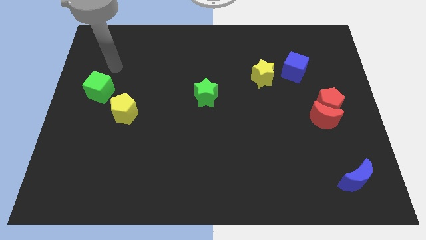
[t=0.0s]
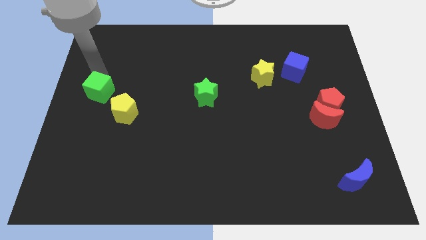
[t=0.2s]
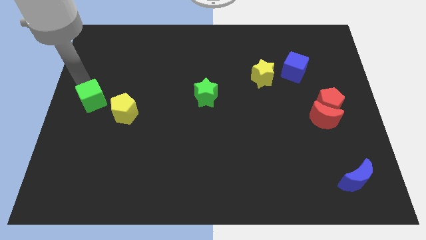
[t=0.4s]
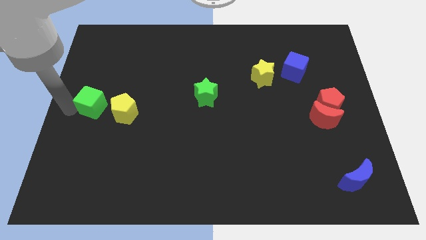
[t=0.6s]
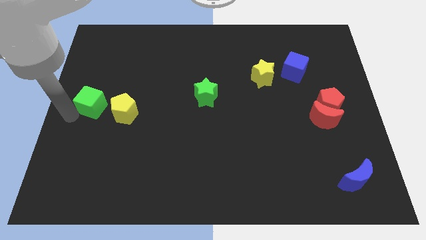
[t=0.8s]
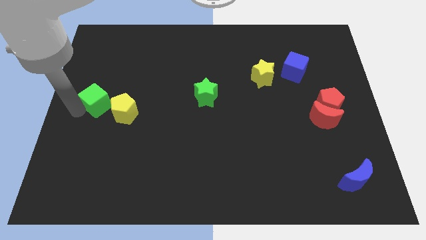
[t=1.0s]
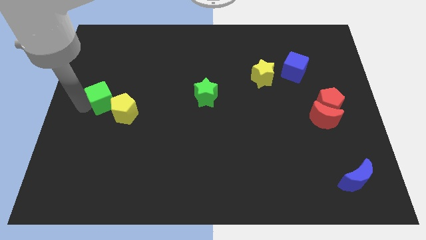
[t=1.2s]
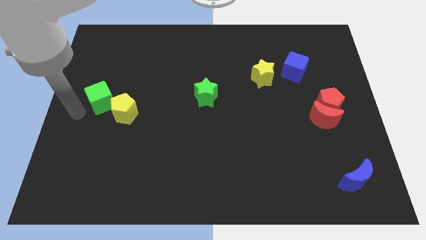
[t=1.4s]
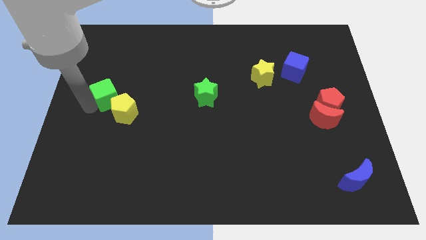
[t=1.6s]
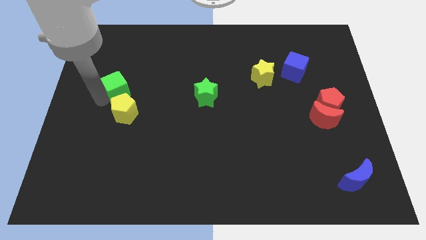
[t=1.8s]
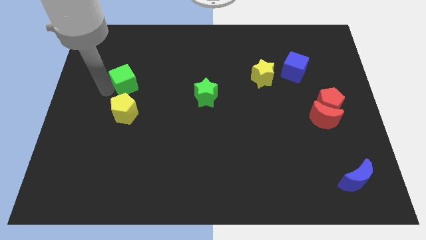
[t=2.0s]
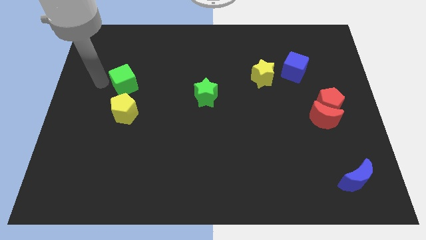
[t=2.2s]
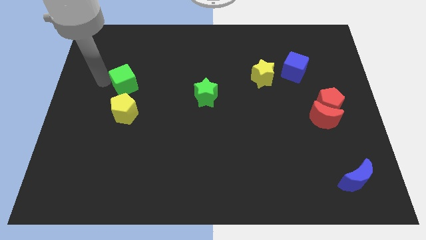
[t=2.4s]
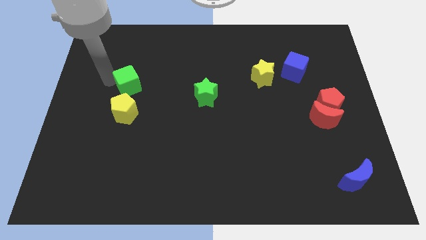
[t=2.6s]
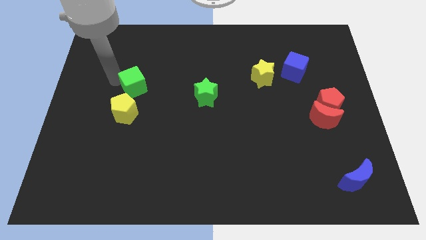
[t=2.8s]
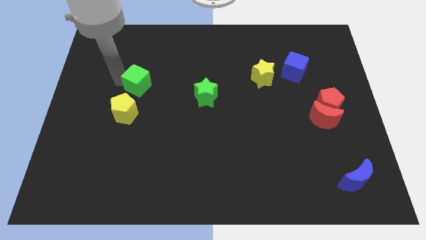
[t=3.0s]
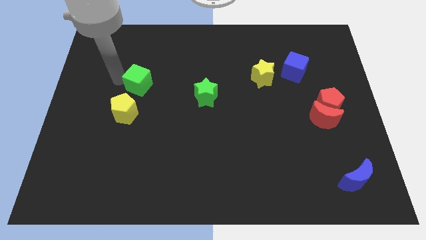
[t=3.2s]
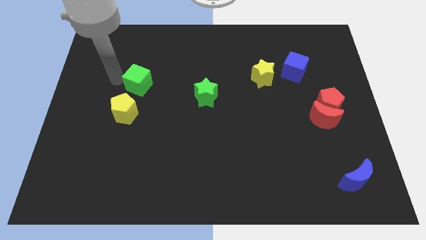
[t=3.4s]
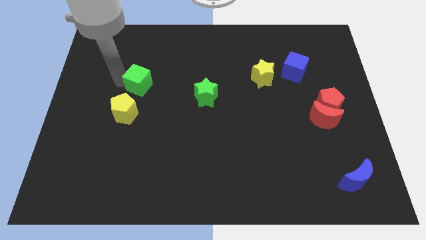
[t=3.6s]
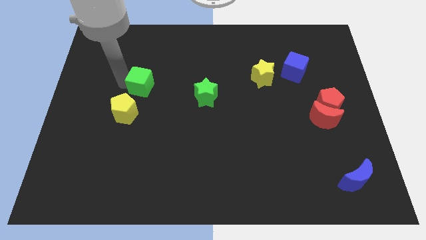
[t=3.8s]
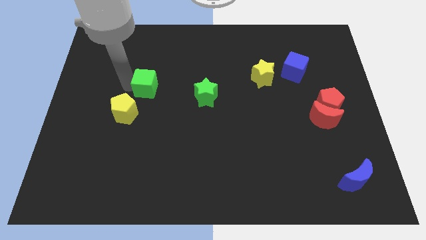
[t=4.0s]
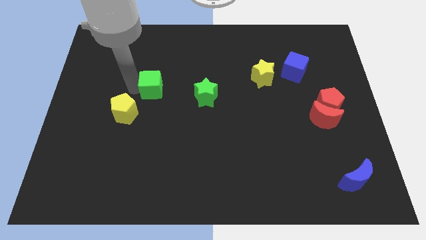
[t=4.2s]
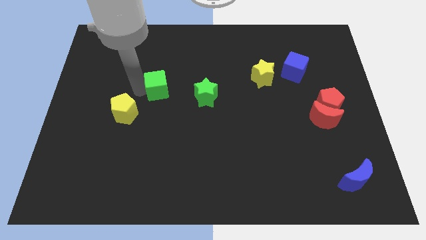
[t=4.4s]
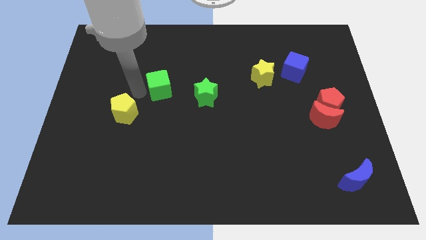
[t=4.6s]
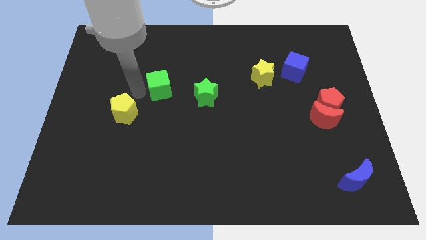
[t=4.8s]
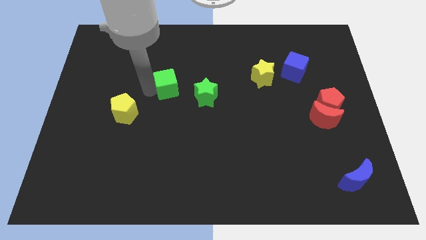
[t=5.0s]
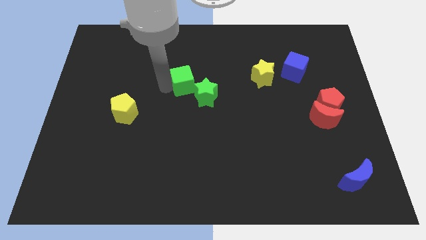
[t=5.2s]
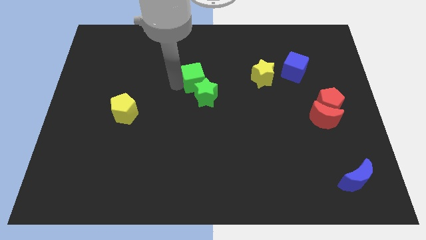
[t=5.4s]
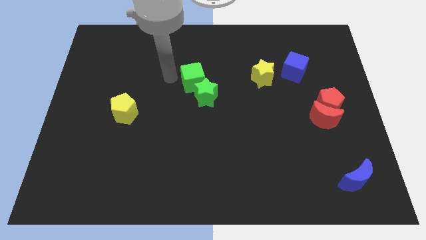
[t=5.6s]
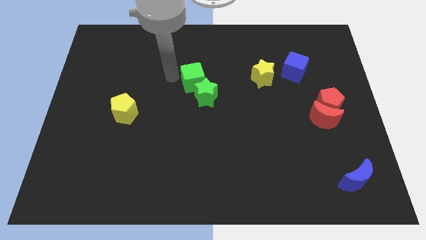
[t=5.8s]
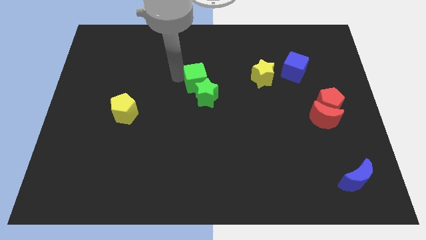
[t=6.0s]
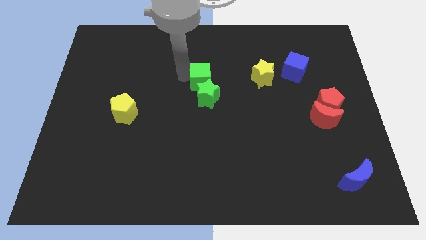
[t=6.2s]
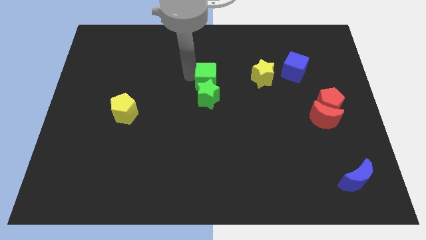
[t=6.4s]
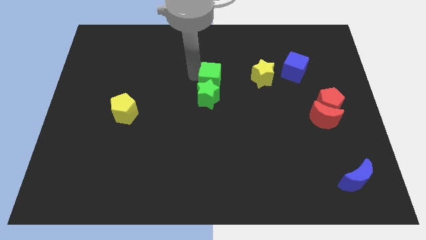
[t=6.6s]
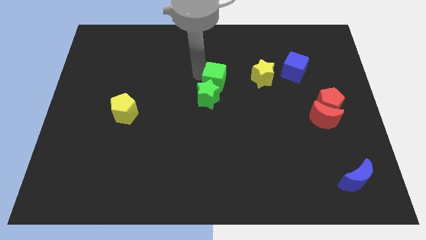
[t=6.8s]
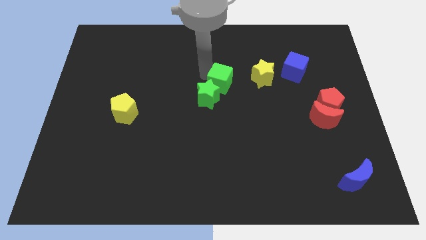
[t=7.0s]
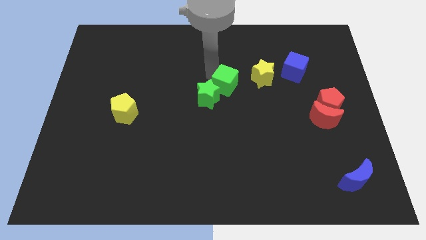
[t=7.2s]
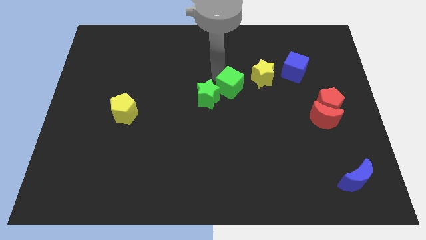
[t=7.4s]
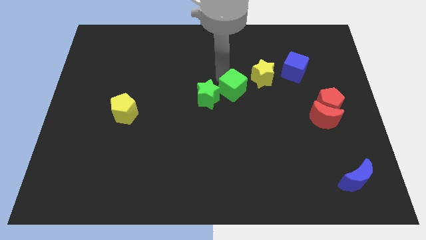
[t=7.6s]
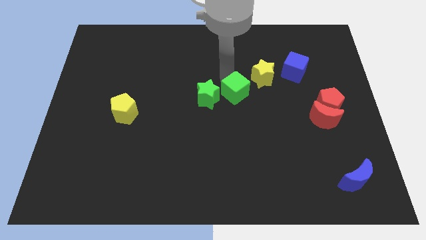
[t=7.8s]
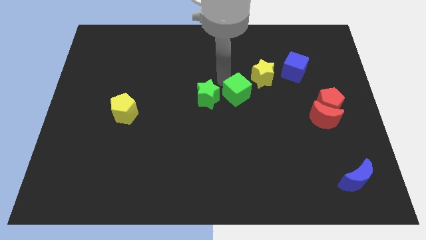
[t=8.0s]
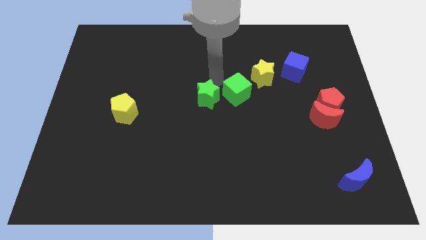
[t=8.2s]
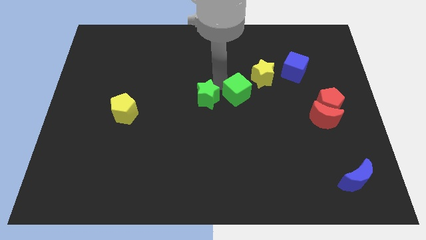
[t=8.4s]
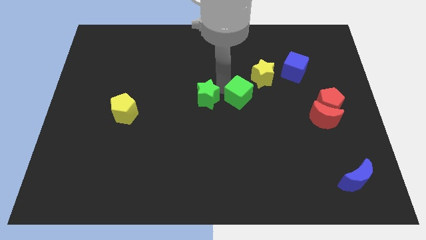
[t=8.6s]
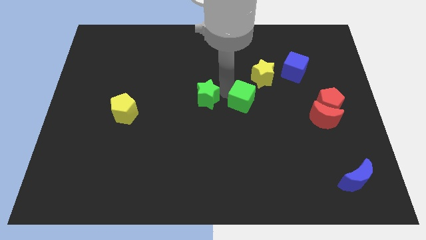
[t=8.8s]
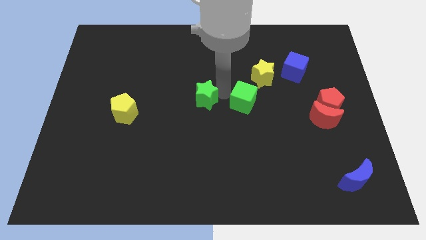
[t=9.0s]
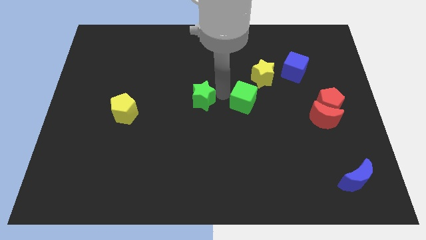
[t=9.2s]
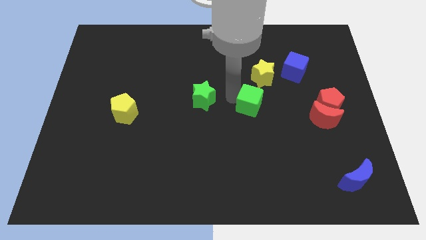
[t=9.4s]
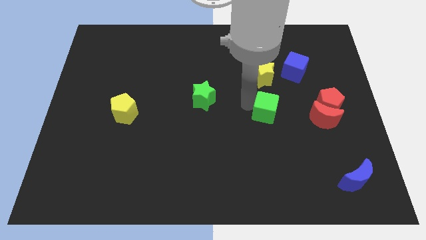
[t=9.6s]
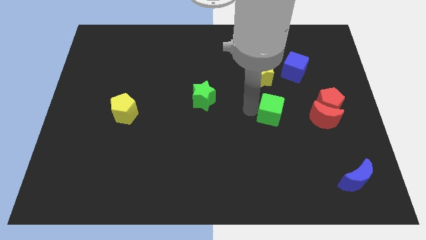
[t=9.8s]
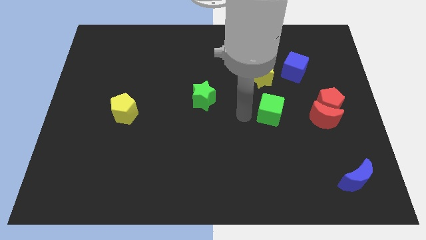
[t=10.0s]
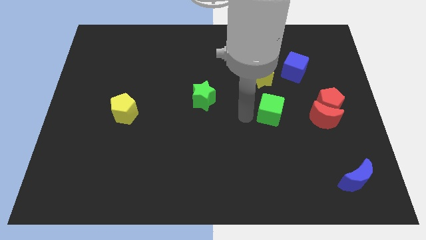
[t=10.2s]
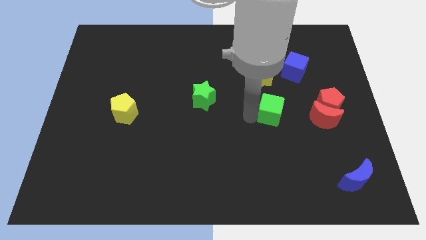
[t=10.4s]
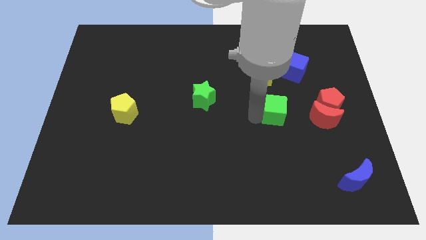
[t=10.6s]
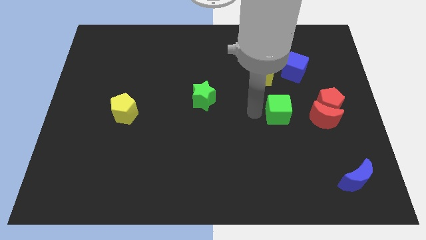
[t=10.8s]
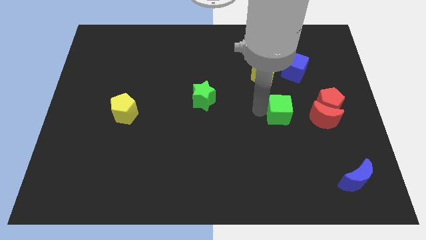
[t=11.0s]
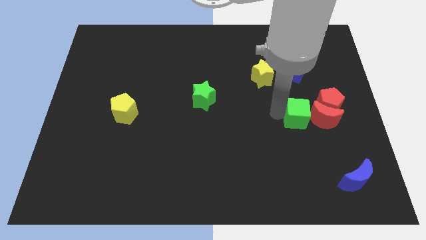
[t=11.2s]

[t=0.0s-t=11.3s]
move the green cube close to the red moon

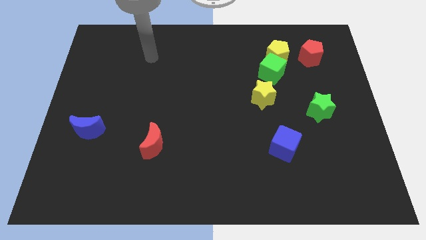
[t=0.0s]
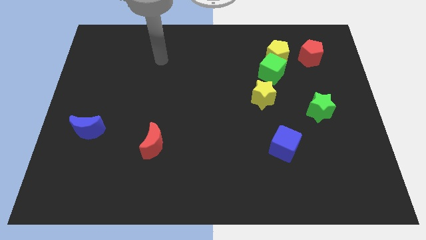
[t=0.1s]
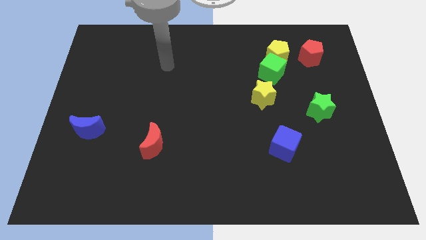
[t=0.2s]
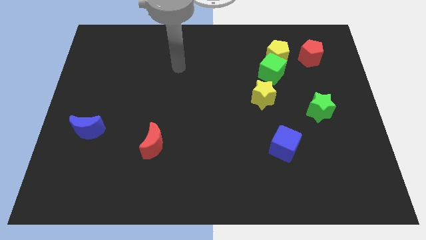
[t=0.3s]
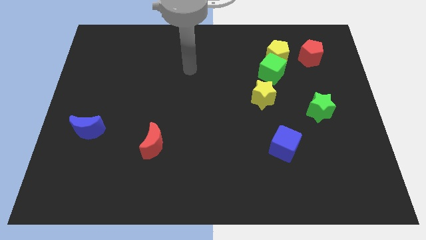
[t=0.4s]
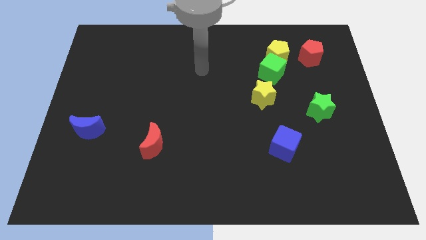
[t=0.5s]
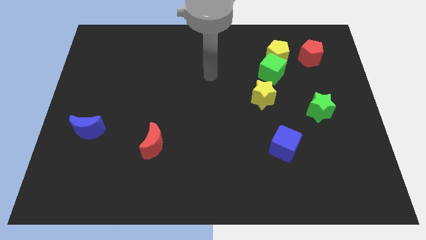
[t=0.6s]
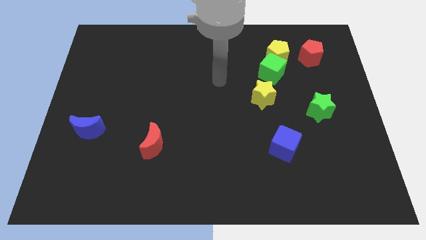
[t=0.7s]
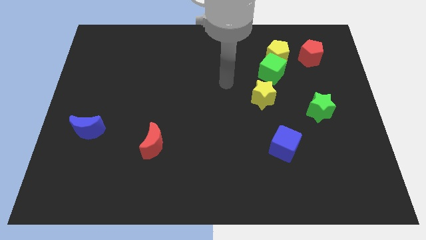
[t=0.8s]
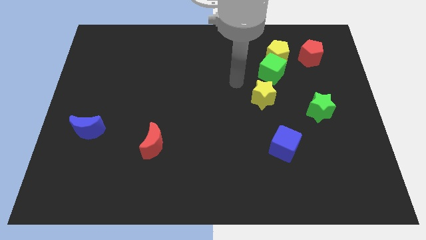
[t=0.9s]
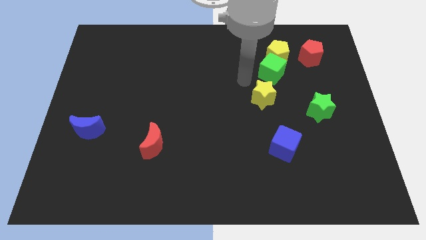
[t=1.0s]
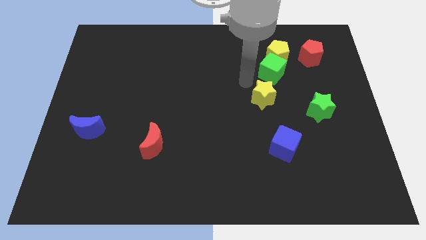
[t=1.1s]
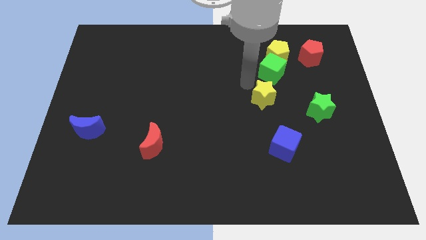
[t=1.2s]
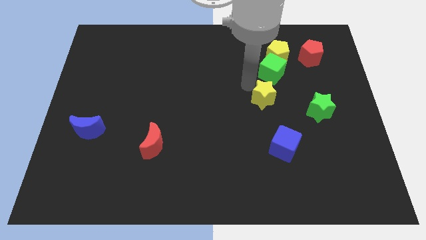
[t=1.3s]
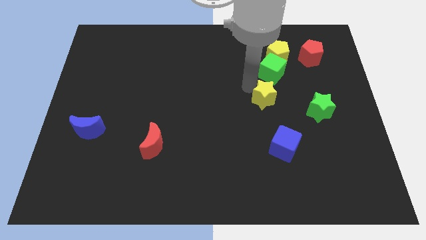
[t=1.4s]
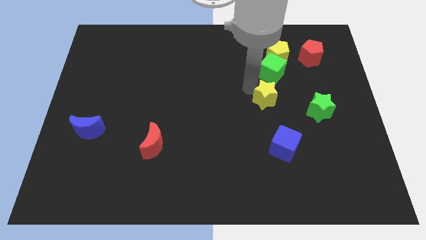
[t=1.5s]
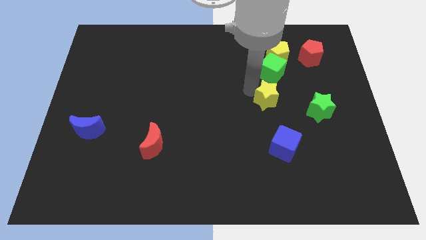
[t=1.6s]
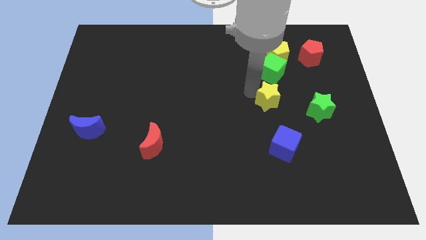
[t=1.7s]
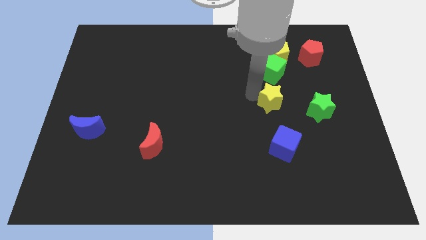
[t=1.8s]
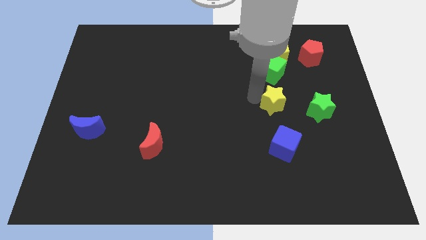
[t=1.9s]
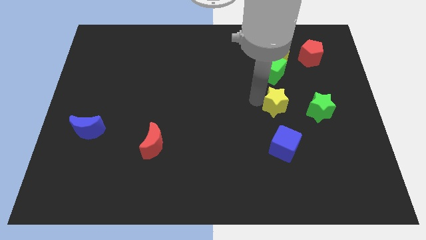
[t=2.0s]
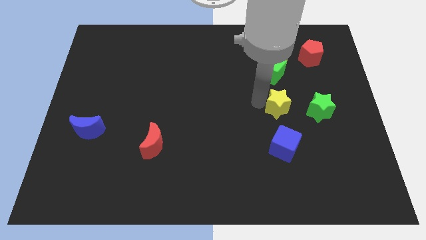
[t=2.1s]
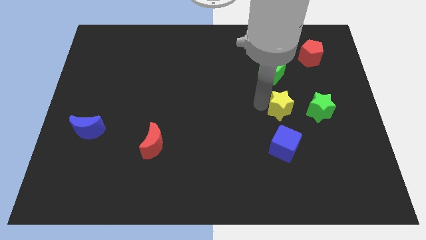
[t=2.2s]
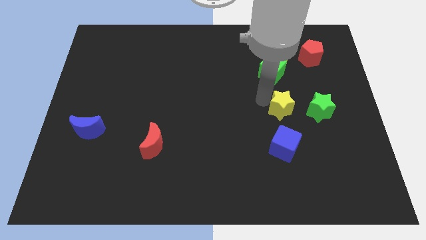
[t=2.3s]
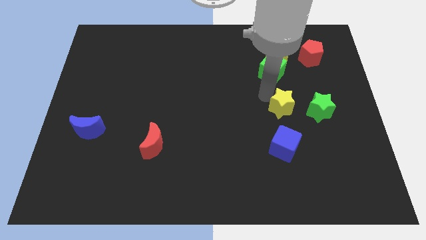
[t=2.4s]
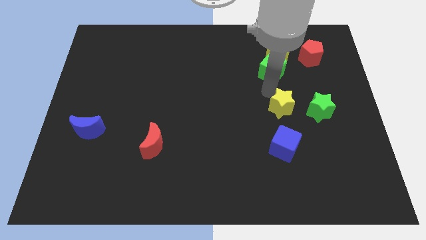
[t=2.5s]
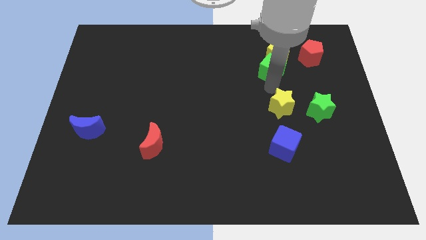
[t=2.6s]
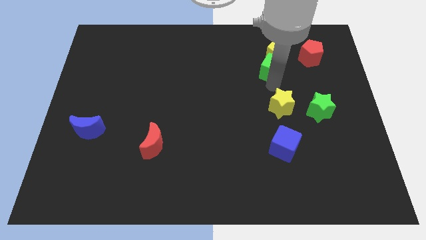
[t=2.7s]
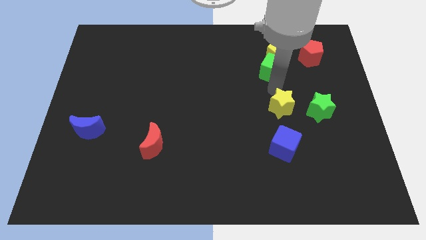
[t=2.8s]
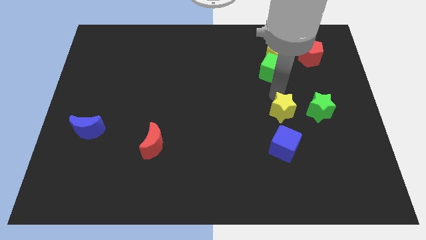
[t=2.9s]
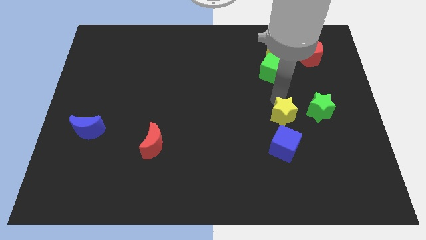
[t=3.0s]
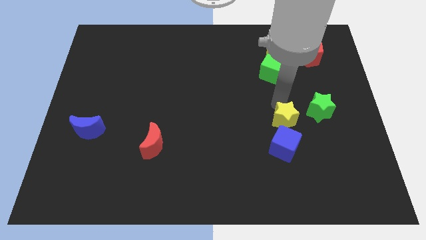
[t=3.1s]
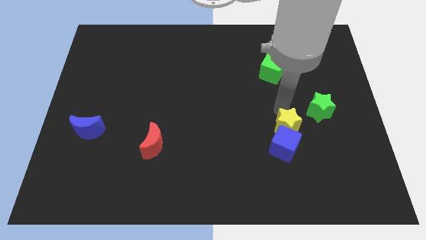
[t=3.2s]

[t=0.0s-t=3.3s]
move the yellow star close to the blue cube
